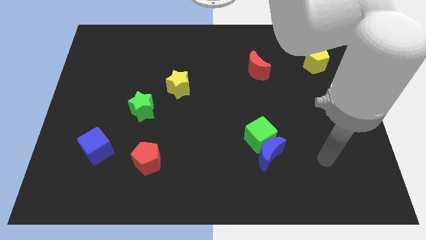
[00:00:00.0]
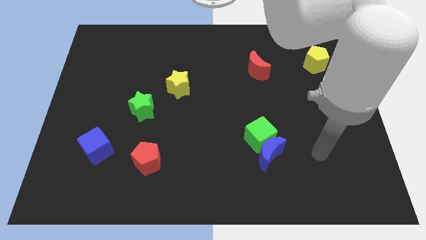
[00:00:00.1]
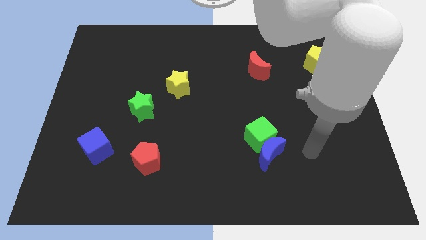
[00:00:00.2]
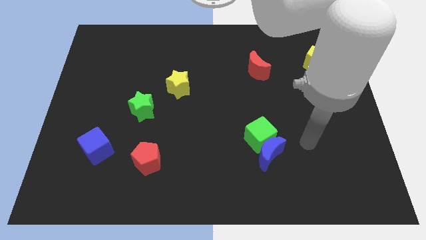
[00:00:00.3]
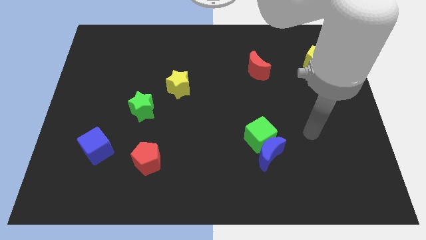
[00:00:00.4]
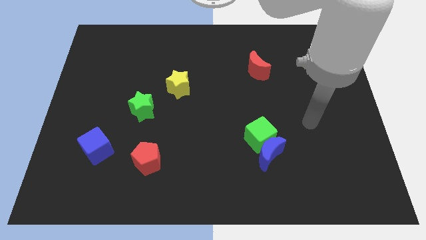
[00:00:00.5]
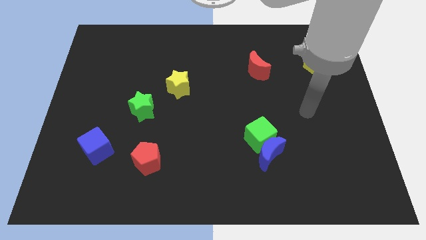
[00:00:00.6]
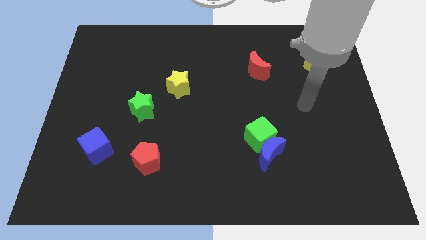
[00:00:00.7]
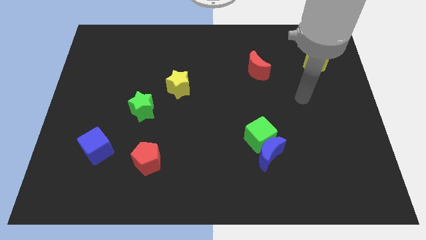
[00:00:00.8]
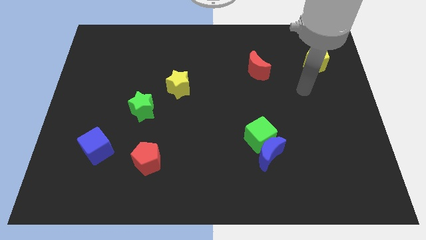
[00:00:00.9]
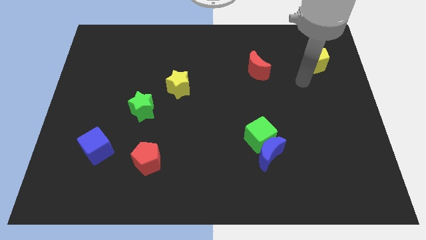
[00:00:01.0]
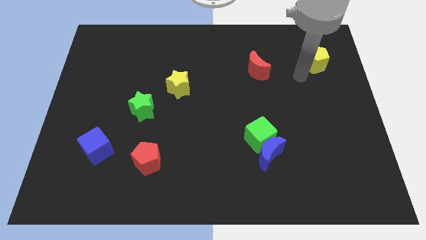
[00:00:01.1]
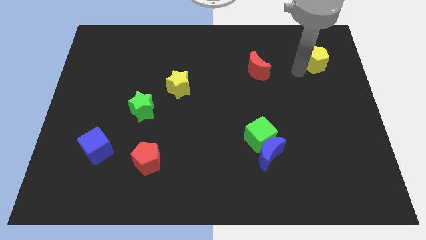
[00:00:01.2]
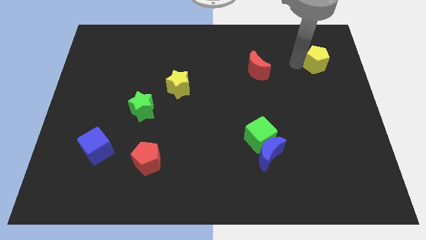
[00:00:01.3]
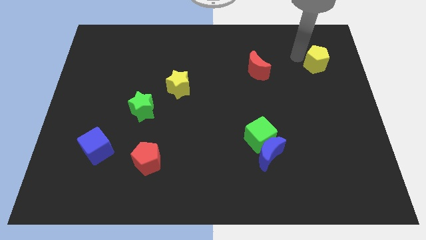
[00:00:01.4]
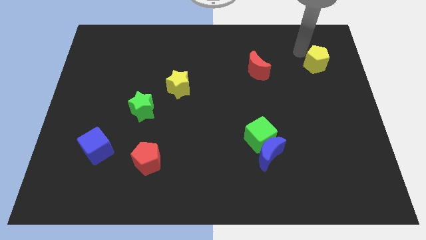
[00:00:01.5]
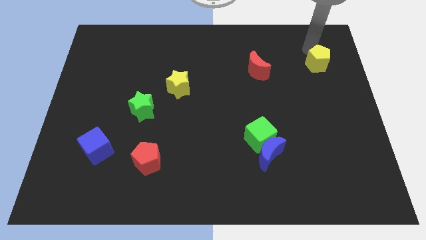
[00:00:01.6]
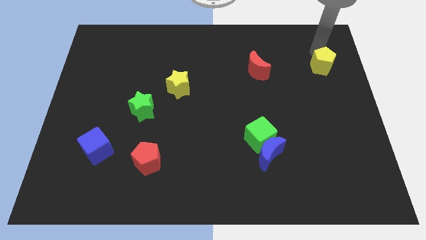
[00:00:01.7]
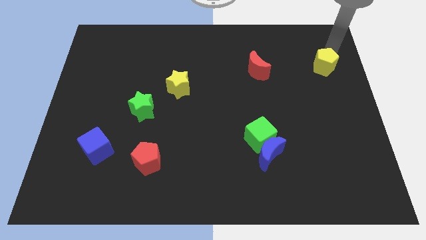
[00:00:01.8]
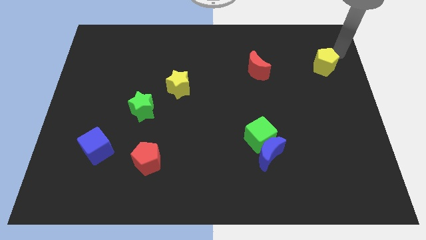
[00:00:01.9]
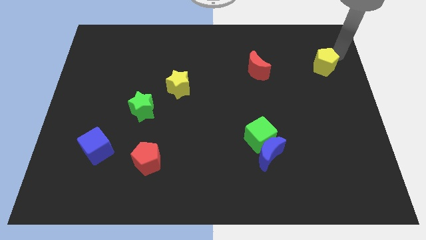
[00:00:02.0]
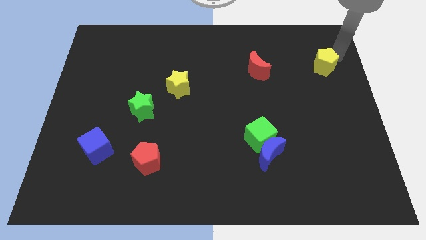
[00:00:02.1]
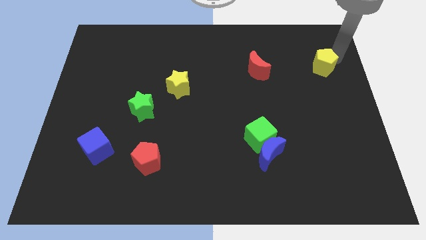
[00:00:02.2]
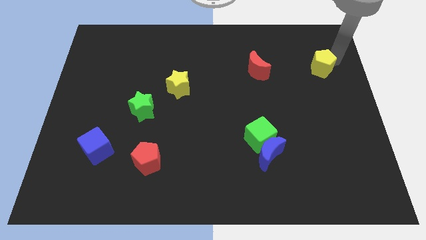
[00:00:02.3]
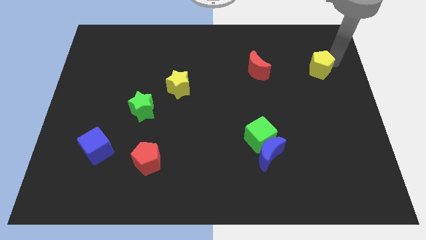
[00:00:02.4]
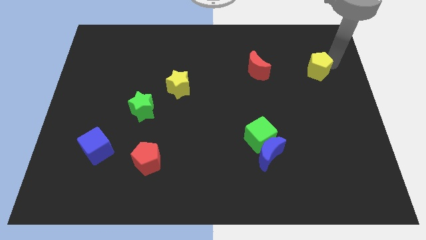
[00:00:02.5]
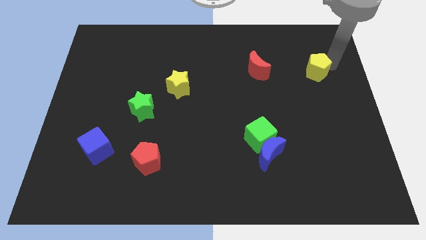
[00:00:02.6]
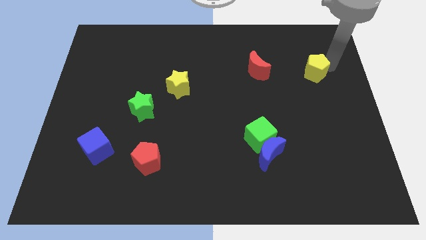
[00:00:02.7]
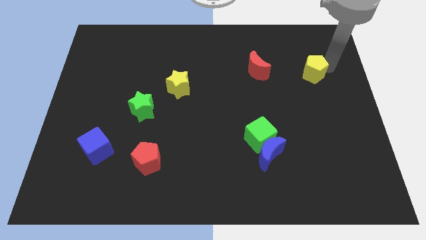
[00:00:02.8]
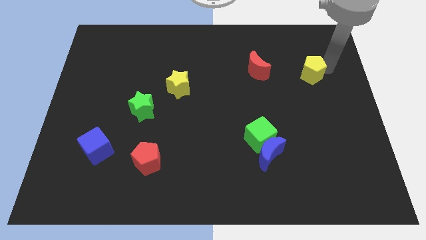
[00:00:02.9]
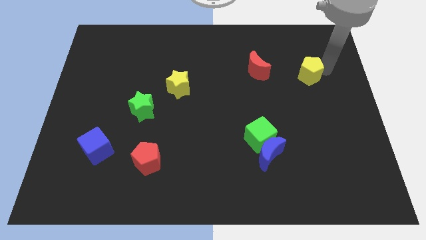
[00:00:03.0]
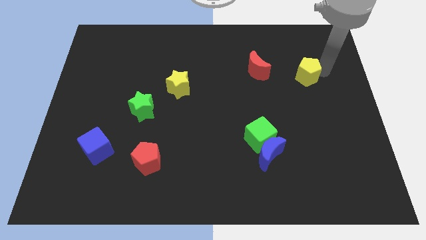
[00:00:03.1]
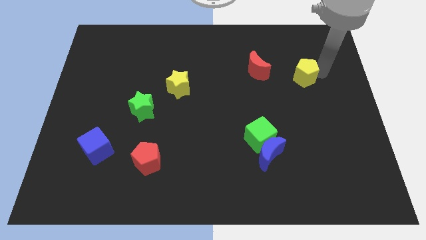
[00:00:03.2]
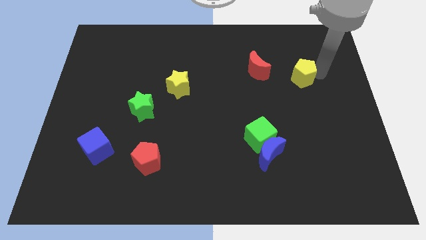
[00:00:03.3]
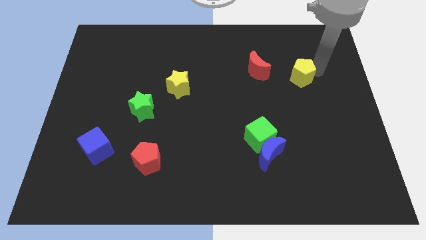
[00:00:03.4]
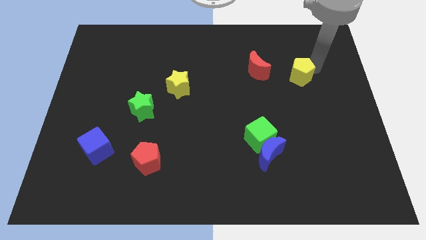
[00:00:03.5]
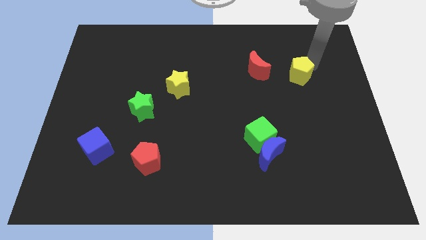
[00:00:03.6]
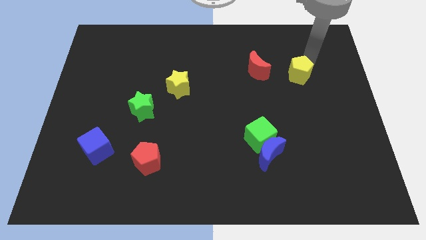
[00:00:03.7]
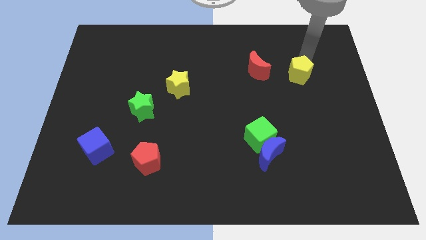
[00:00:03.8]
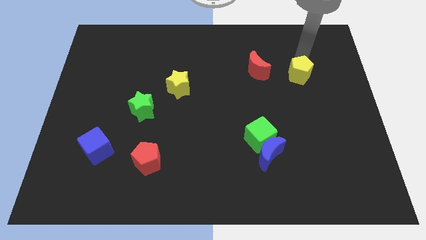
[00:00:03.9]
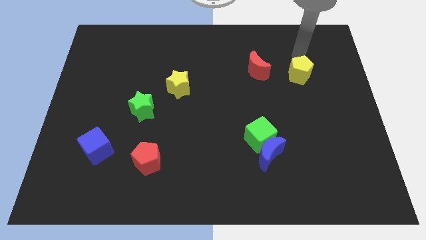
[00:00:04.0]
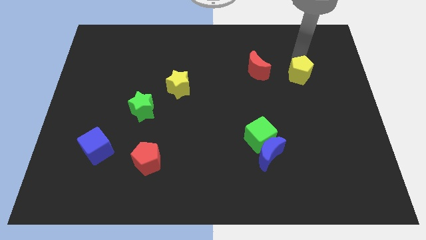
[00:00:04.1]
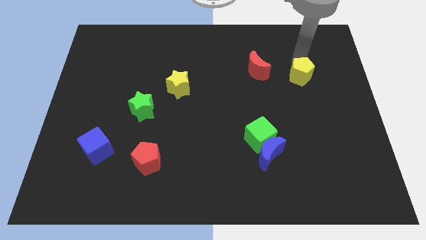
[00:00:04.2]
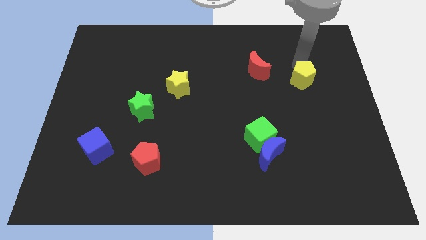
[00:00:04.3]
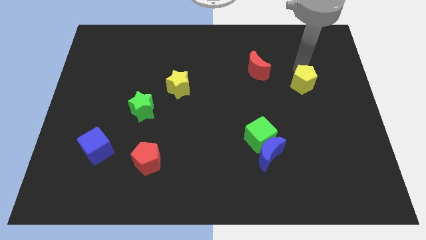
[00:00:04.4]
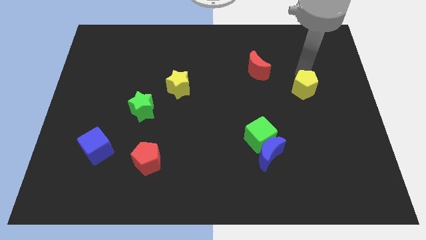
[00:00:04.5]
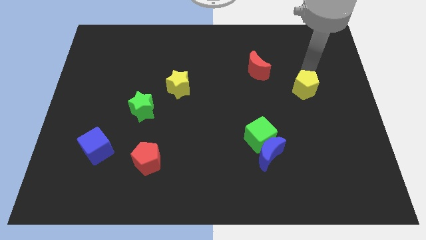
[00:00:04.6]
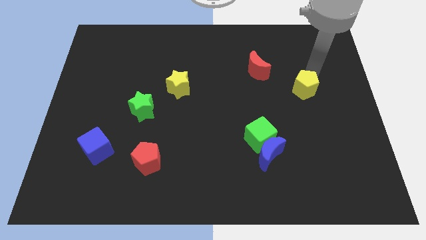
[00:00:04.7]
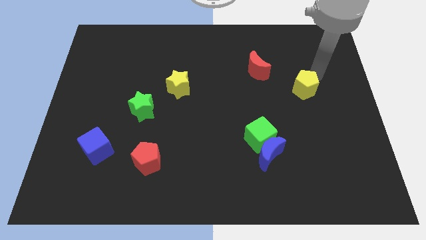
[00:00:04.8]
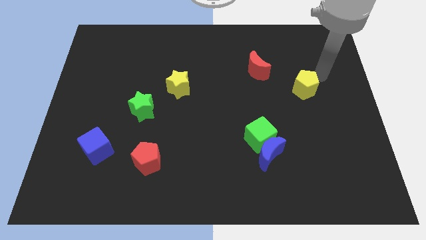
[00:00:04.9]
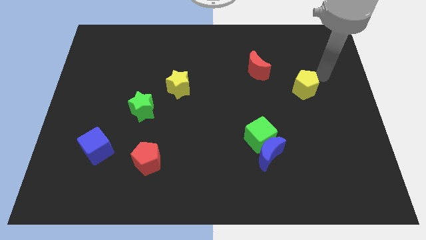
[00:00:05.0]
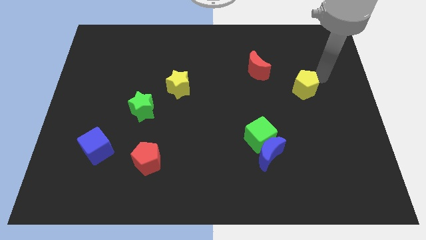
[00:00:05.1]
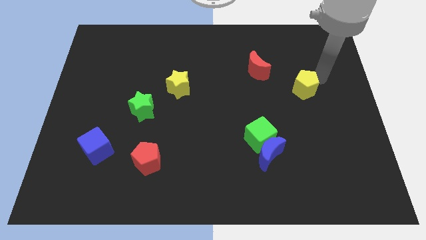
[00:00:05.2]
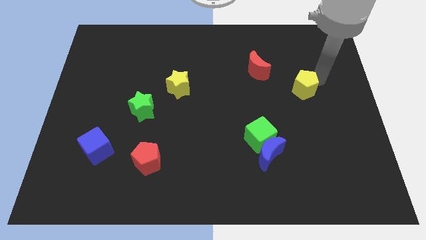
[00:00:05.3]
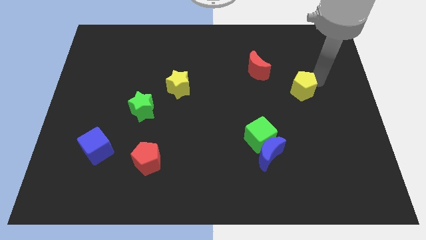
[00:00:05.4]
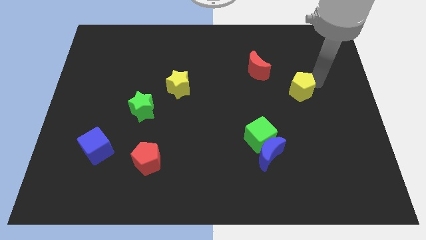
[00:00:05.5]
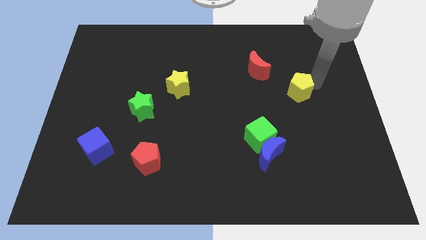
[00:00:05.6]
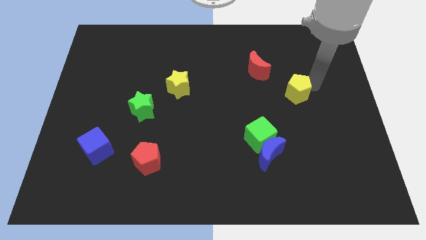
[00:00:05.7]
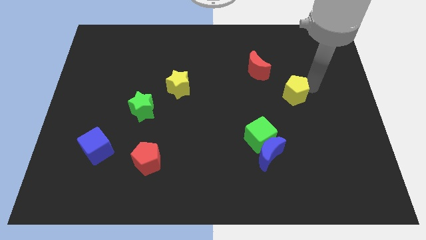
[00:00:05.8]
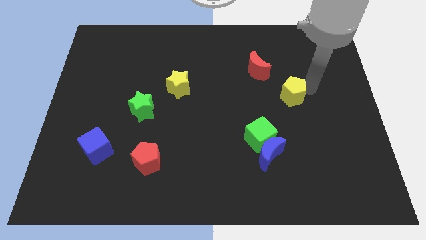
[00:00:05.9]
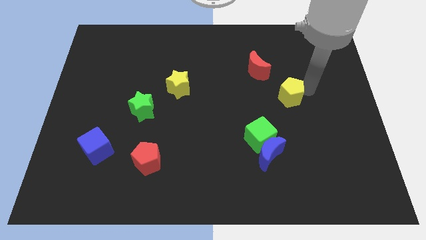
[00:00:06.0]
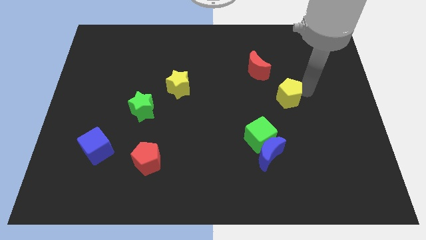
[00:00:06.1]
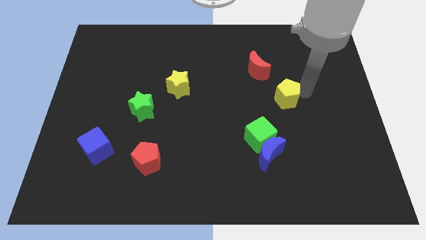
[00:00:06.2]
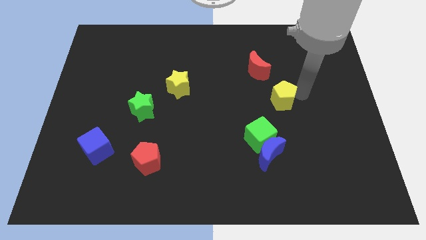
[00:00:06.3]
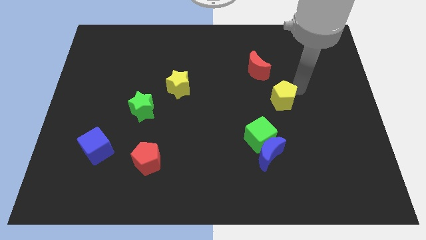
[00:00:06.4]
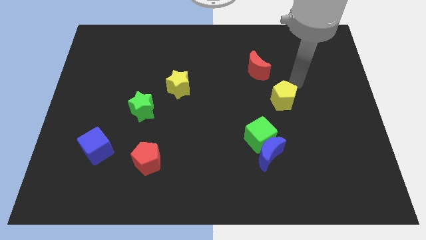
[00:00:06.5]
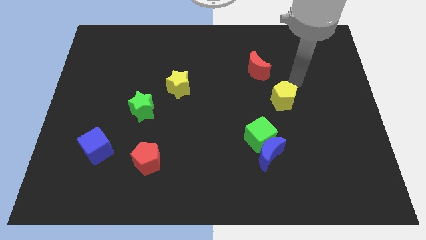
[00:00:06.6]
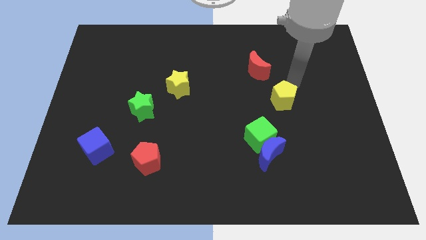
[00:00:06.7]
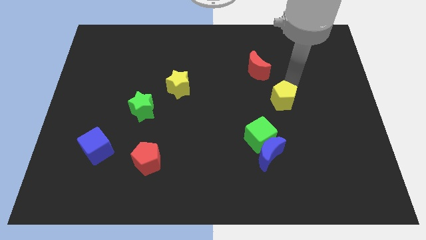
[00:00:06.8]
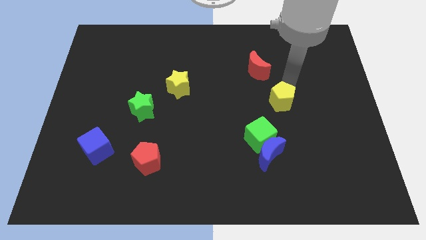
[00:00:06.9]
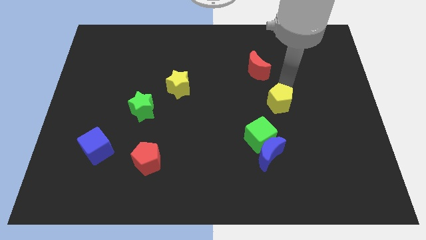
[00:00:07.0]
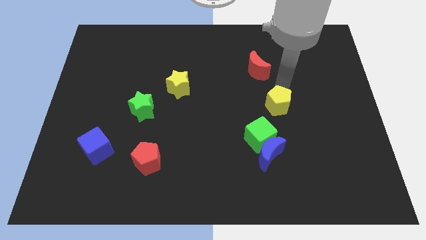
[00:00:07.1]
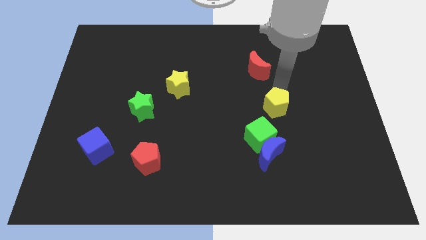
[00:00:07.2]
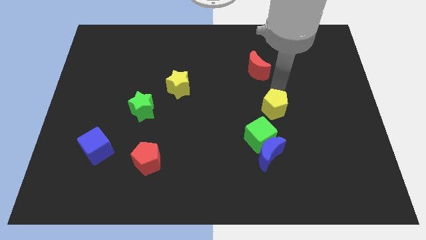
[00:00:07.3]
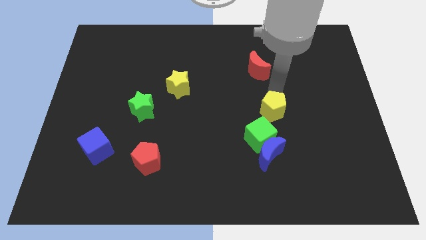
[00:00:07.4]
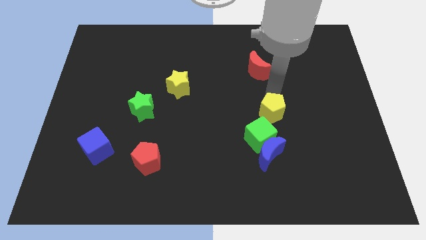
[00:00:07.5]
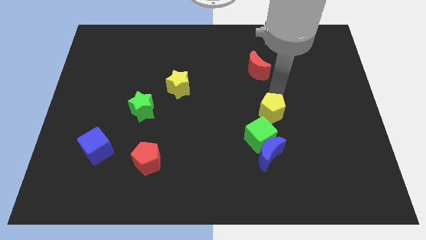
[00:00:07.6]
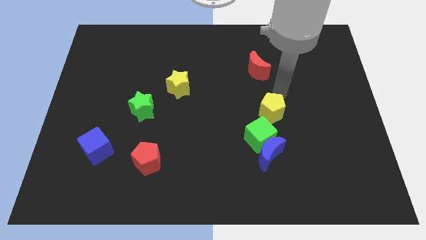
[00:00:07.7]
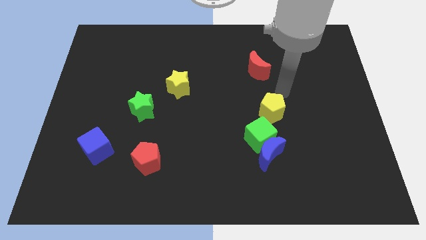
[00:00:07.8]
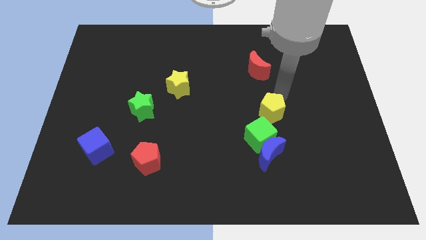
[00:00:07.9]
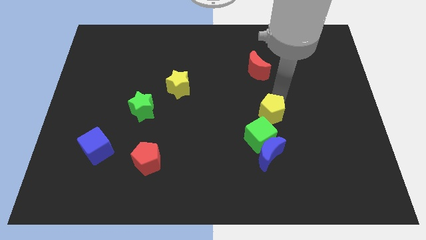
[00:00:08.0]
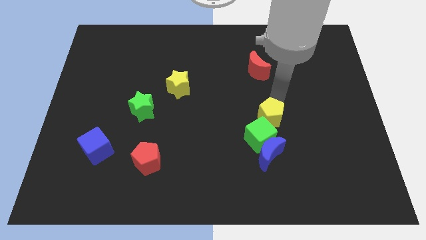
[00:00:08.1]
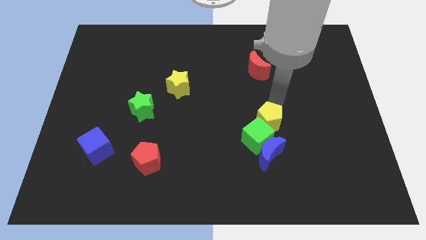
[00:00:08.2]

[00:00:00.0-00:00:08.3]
put the yellow pentagon close to the green cube
